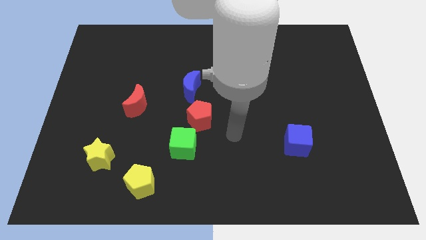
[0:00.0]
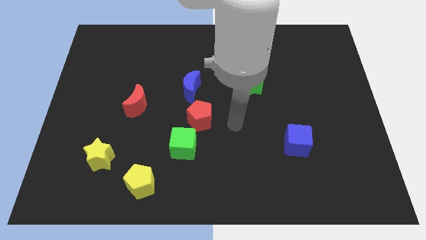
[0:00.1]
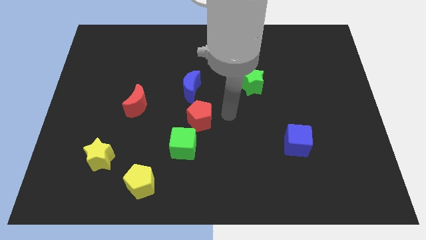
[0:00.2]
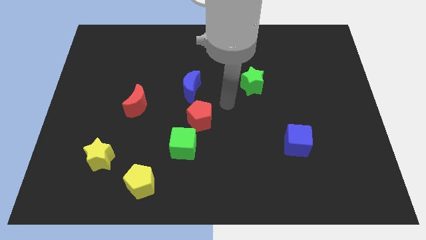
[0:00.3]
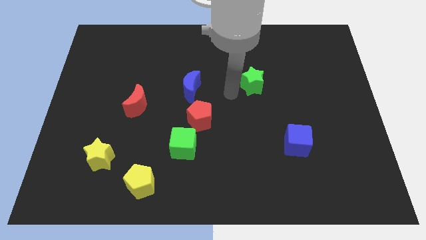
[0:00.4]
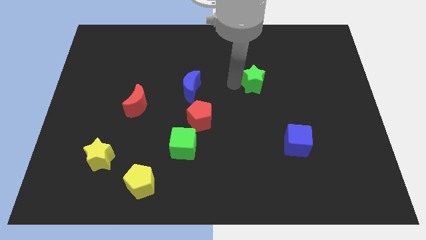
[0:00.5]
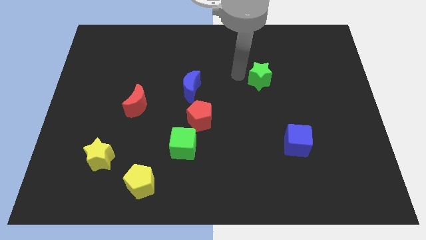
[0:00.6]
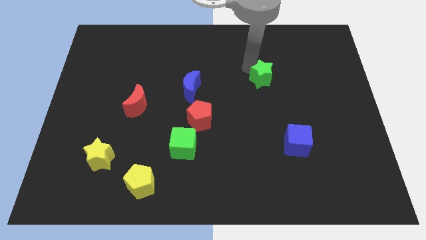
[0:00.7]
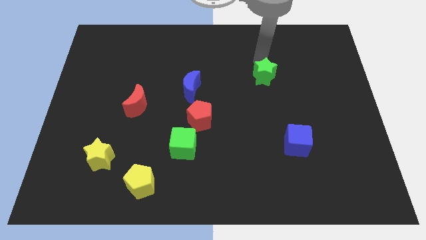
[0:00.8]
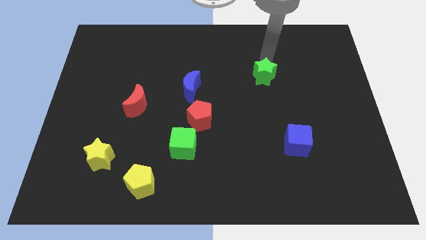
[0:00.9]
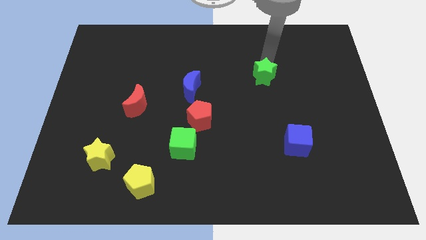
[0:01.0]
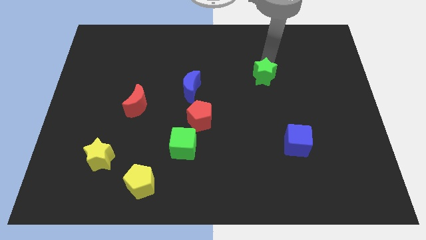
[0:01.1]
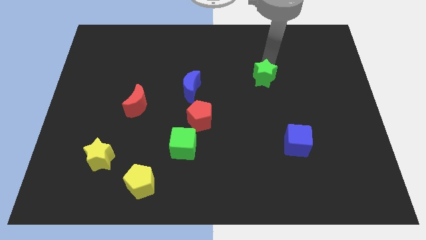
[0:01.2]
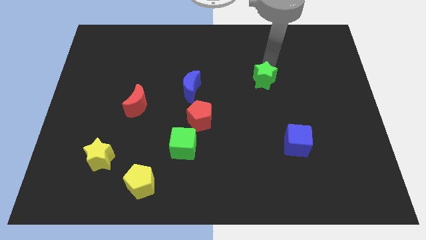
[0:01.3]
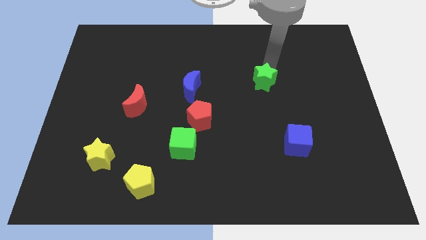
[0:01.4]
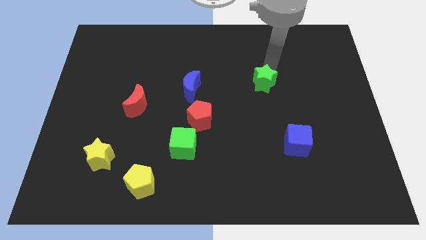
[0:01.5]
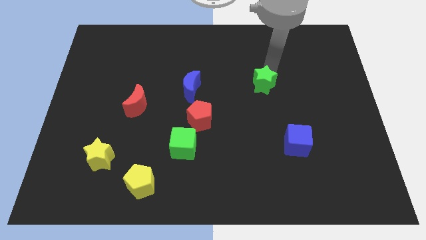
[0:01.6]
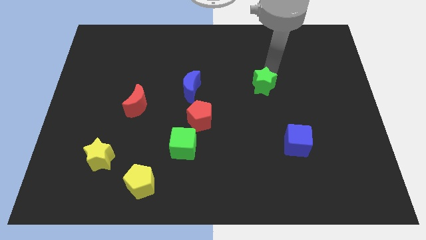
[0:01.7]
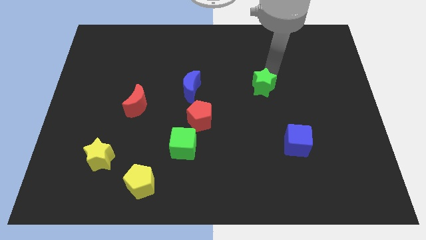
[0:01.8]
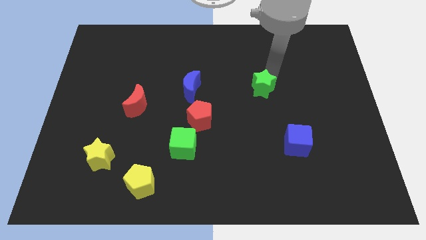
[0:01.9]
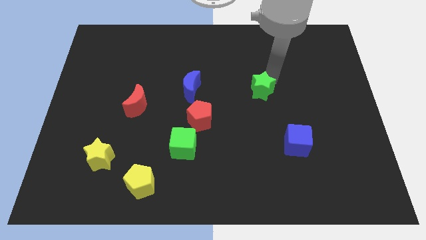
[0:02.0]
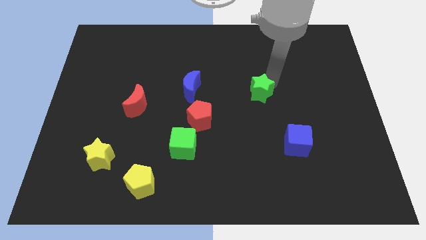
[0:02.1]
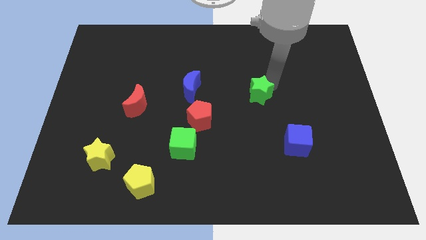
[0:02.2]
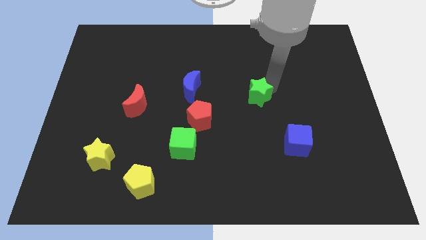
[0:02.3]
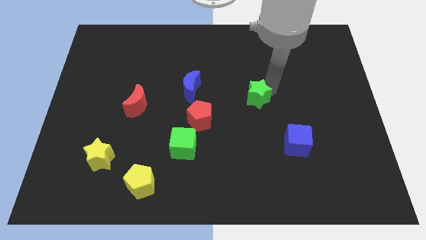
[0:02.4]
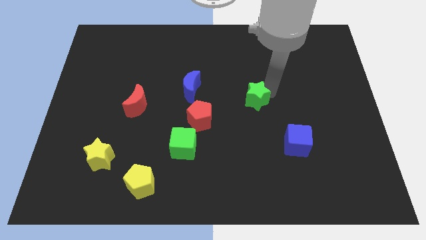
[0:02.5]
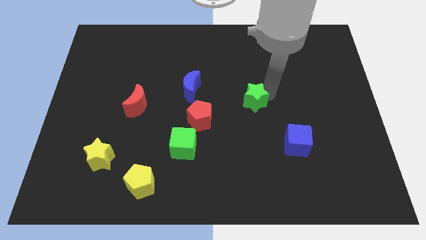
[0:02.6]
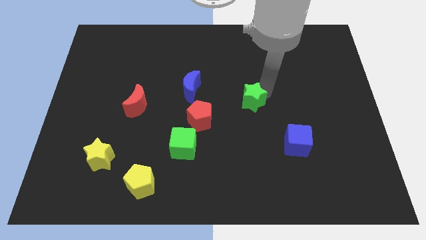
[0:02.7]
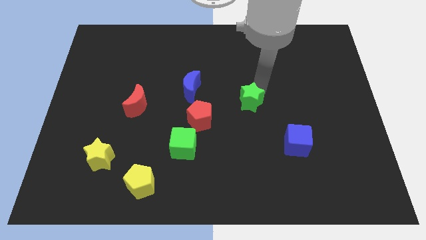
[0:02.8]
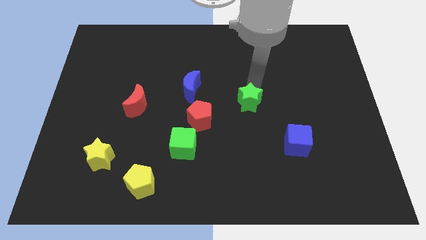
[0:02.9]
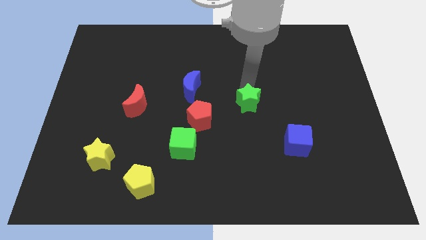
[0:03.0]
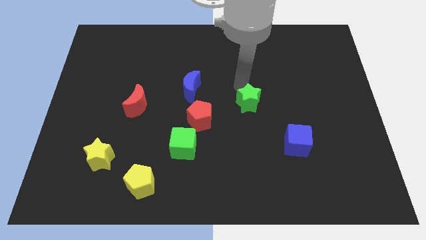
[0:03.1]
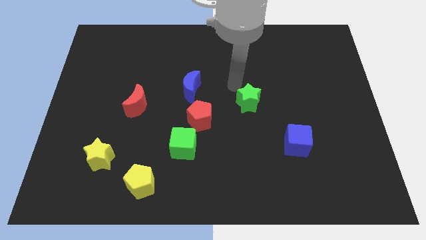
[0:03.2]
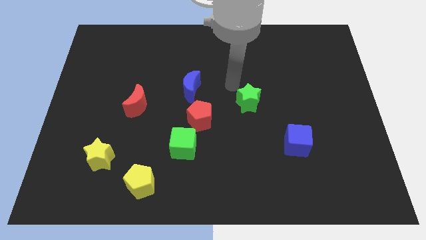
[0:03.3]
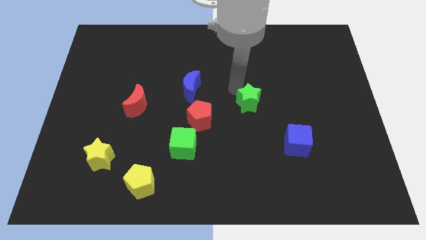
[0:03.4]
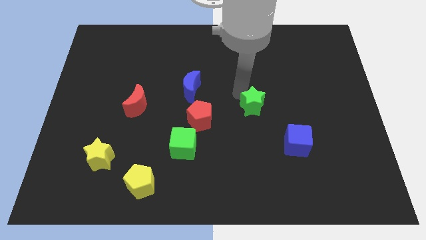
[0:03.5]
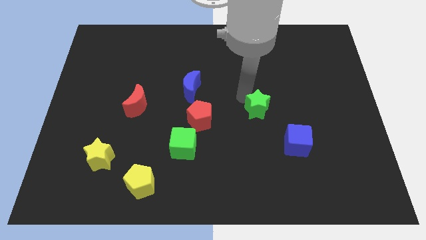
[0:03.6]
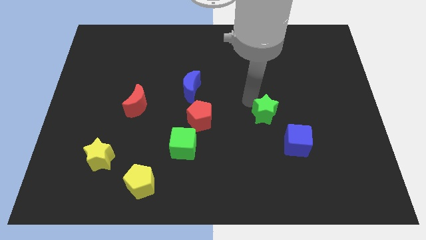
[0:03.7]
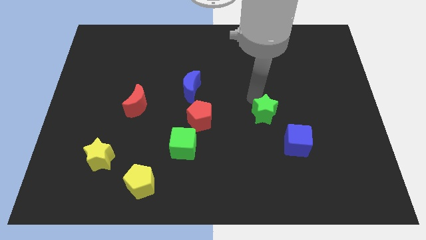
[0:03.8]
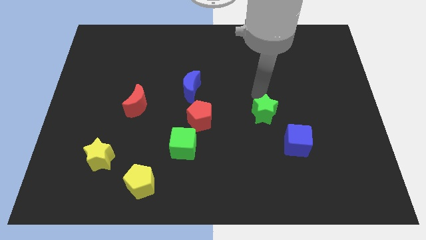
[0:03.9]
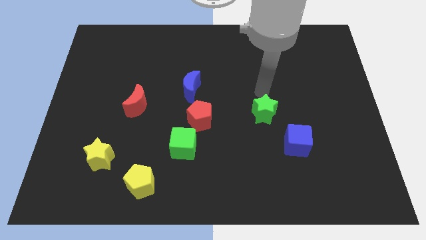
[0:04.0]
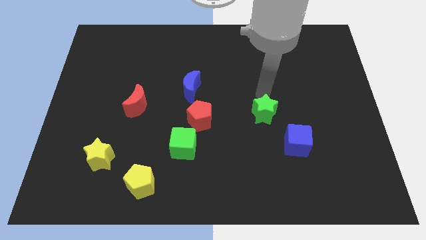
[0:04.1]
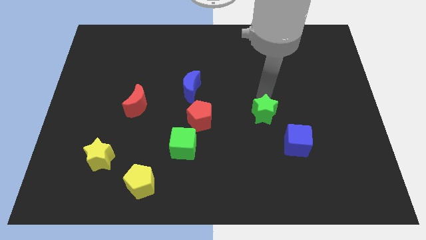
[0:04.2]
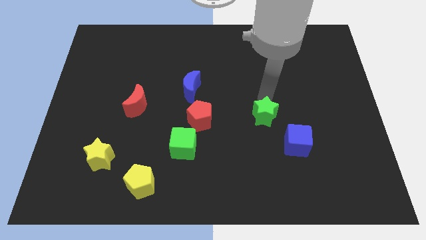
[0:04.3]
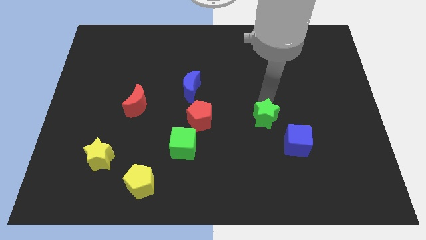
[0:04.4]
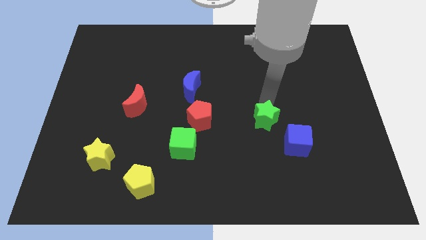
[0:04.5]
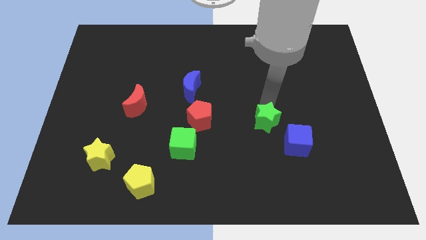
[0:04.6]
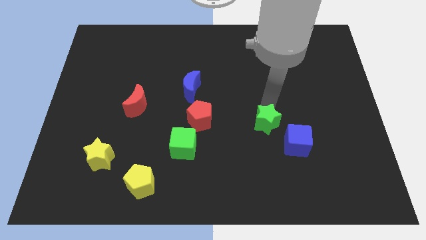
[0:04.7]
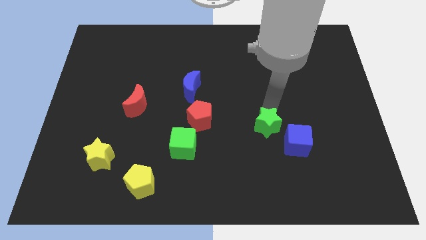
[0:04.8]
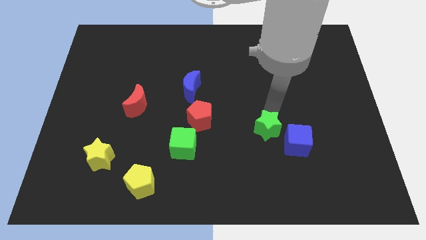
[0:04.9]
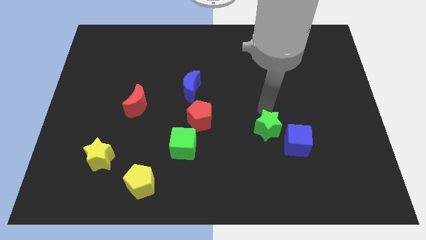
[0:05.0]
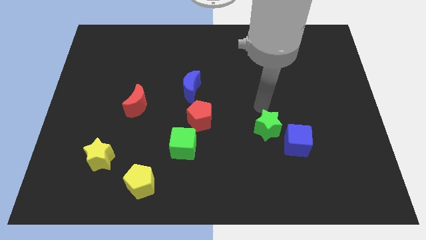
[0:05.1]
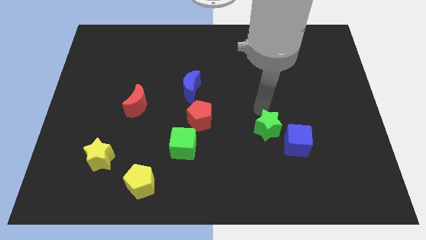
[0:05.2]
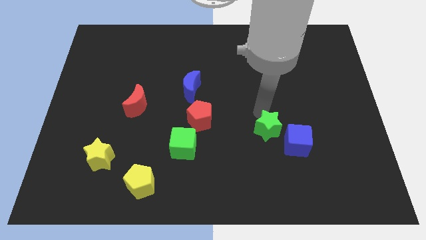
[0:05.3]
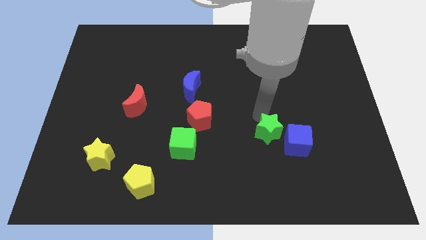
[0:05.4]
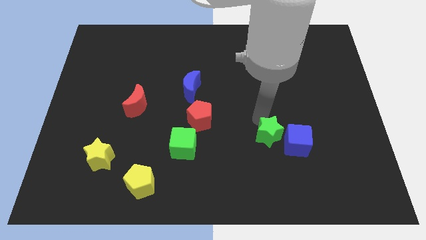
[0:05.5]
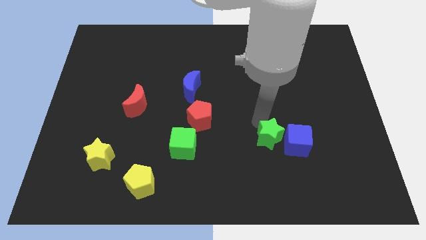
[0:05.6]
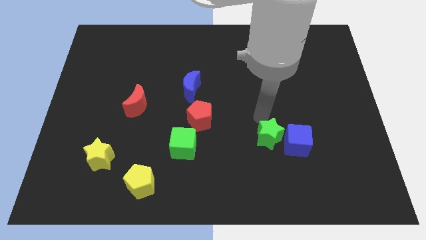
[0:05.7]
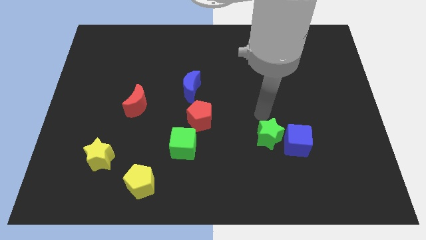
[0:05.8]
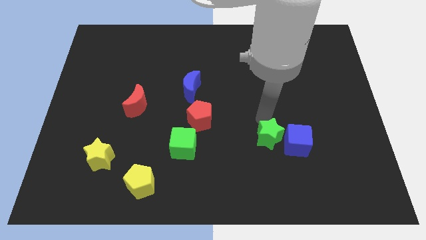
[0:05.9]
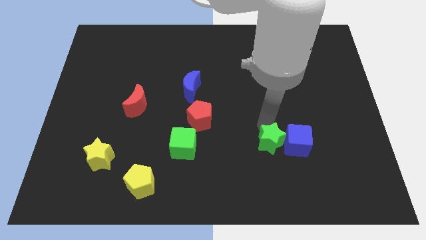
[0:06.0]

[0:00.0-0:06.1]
move the green star to the bottom left of the blue cube
